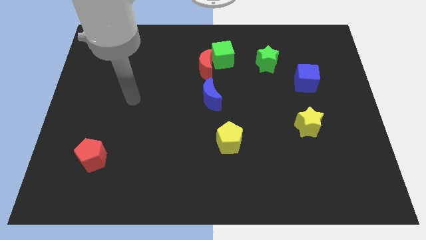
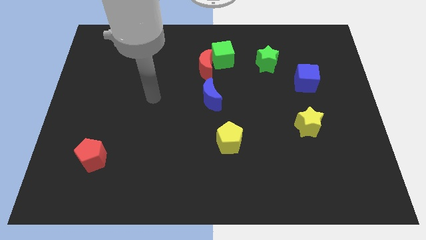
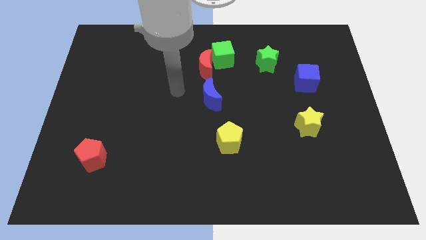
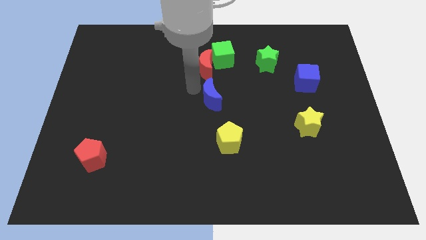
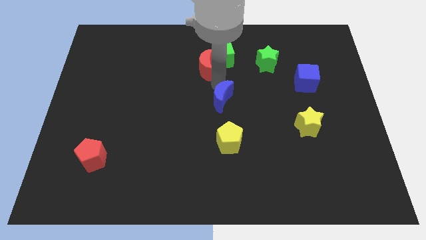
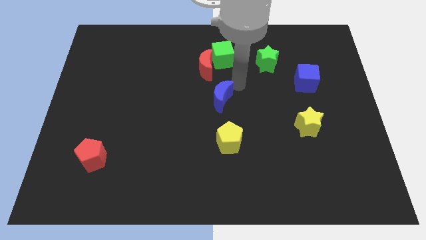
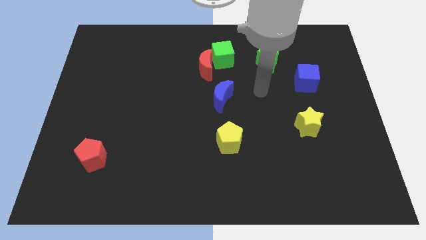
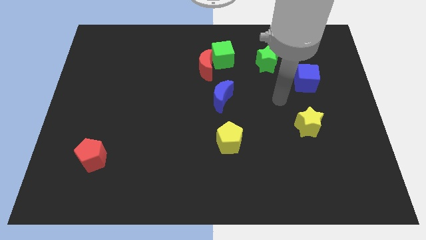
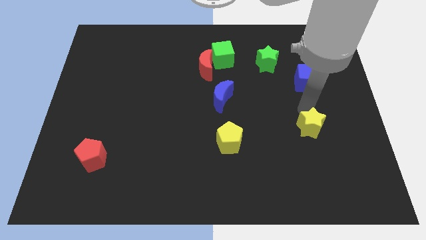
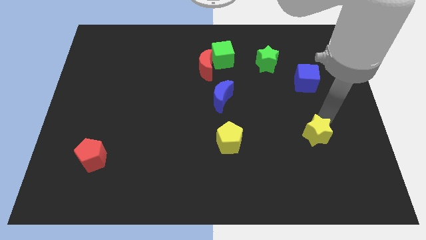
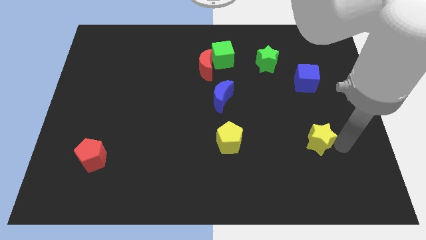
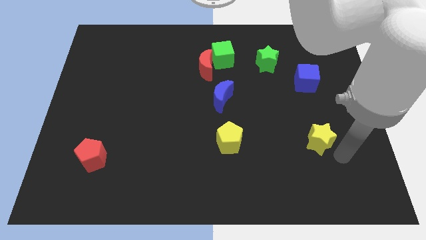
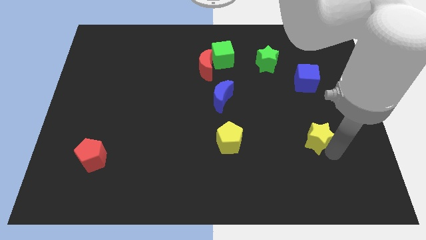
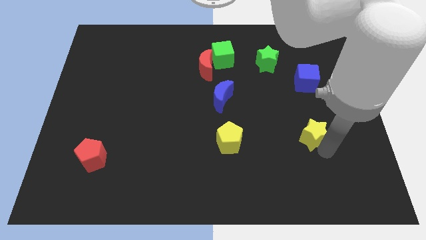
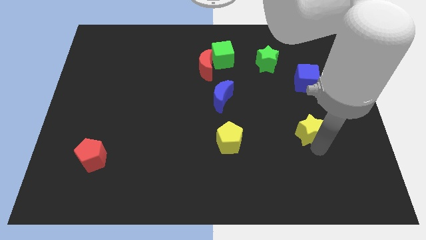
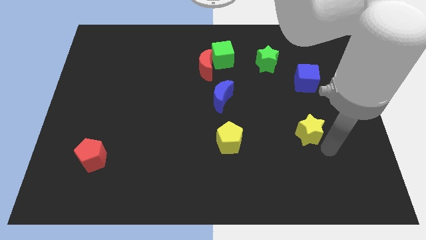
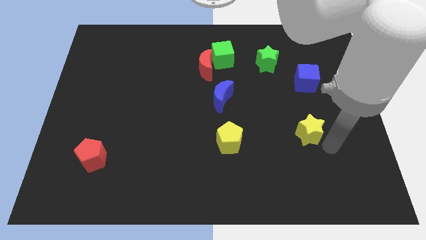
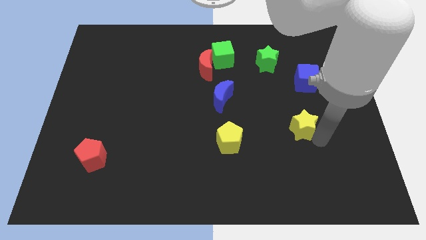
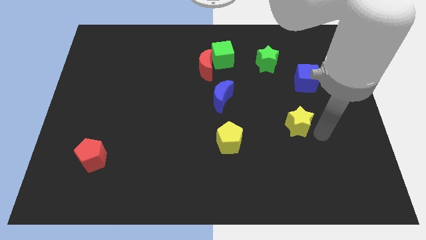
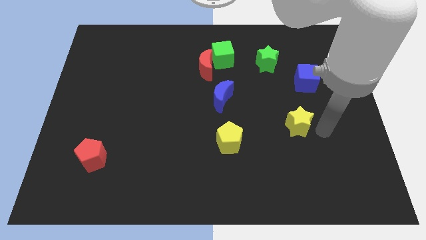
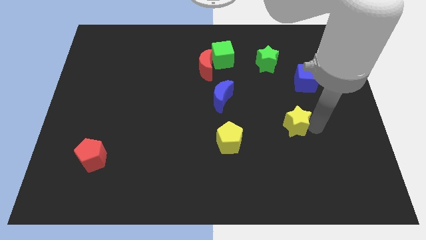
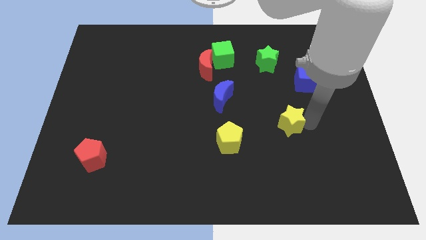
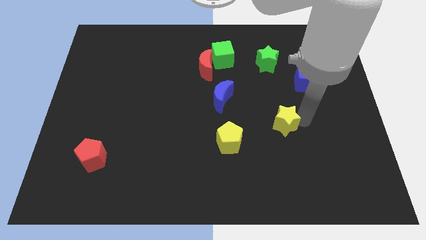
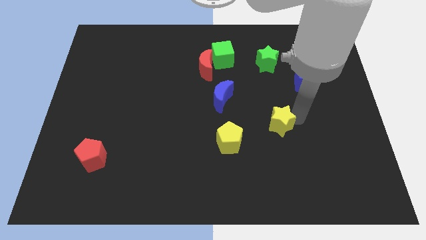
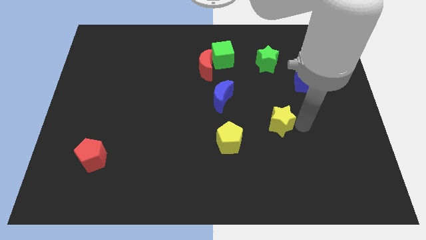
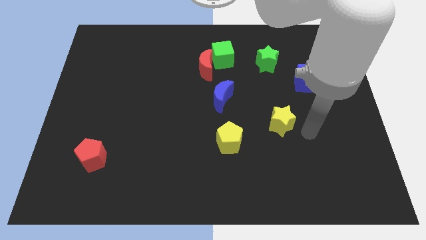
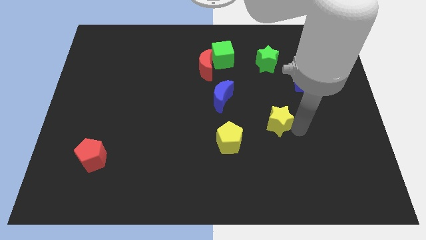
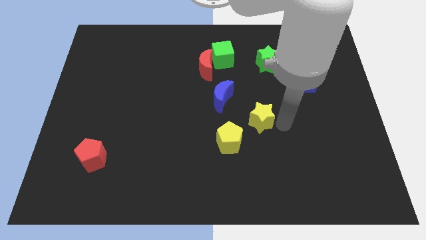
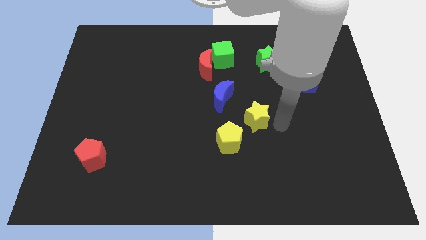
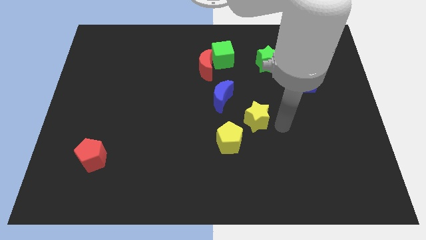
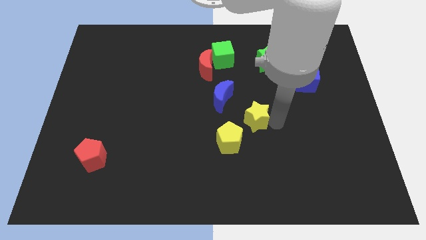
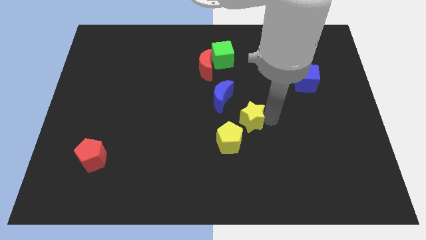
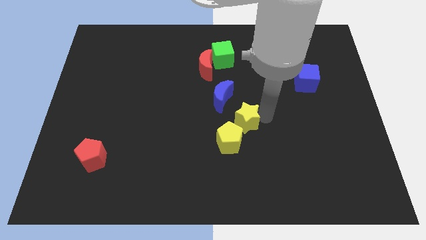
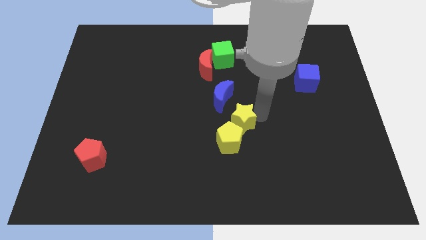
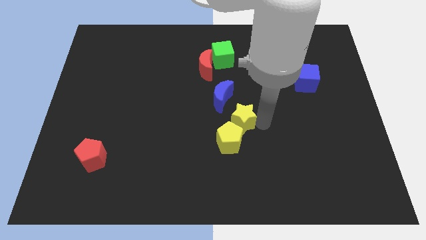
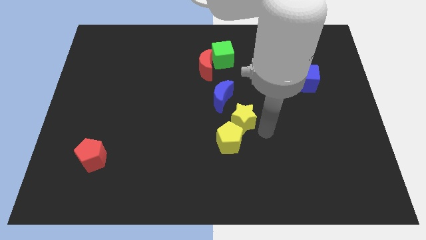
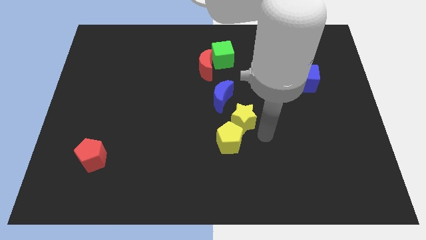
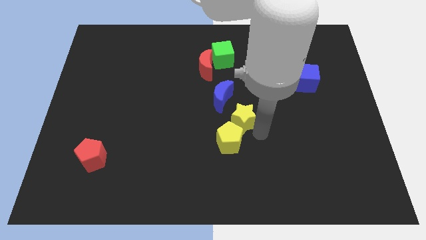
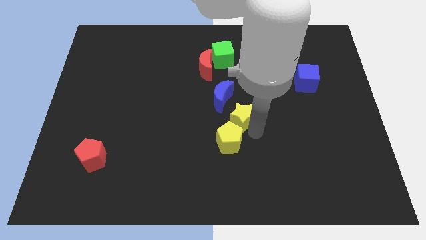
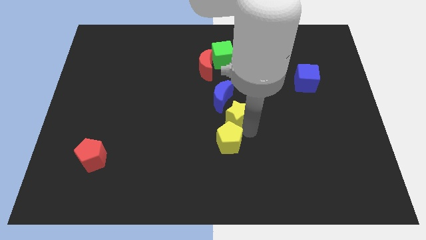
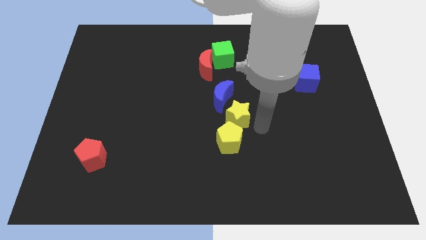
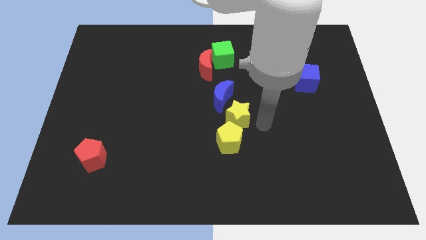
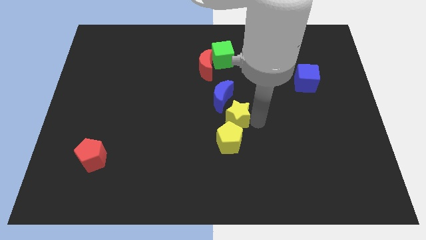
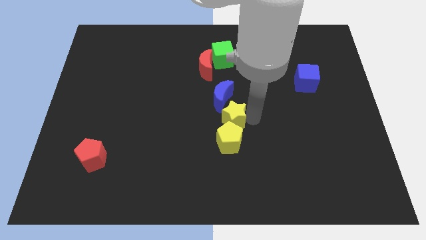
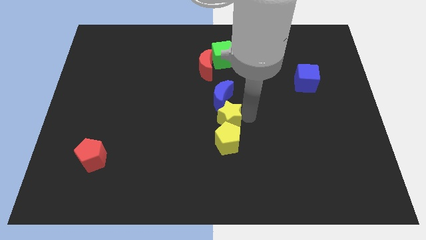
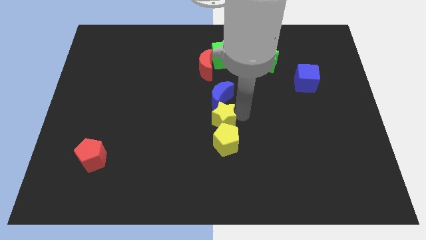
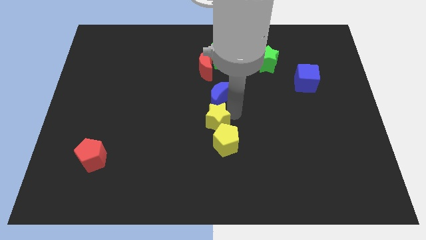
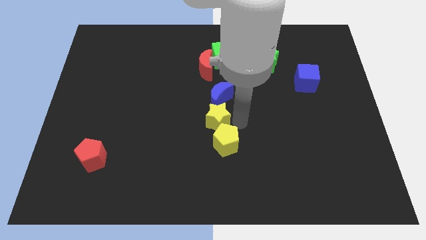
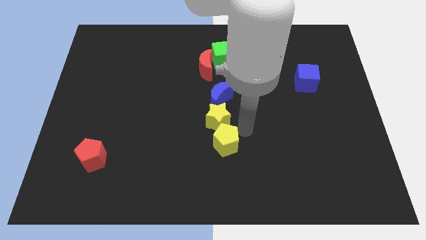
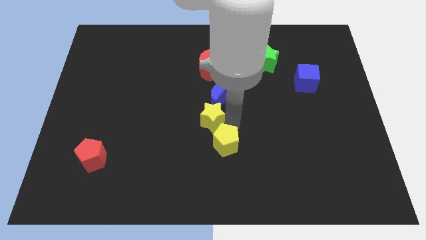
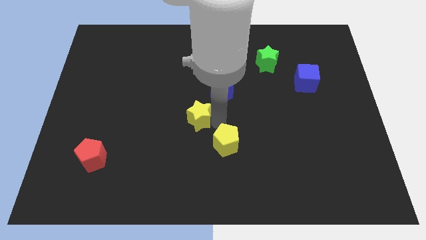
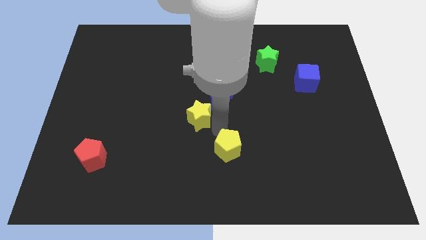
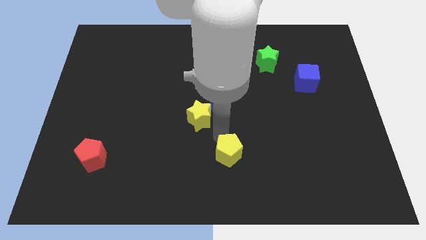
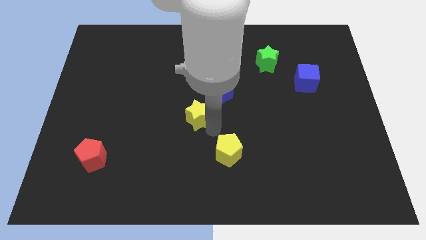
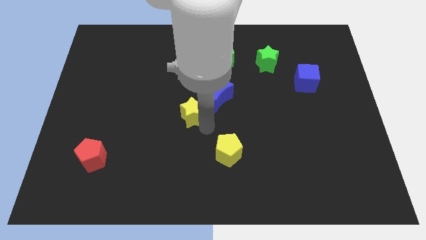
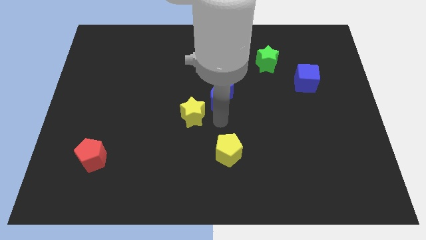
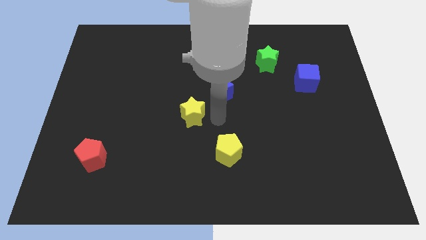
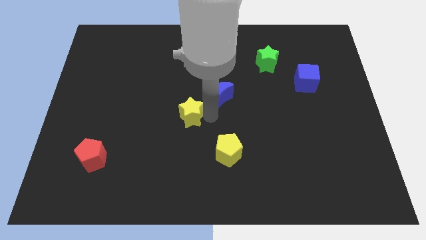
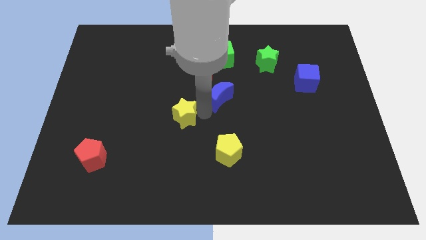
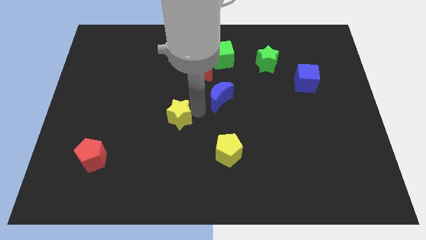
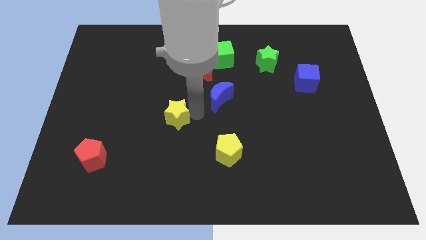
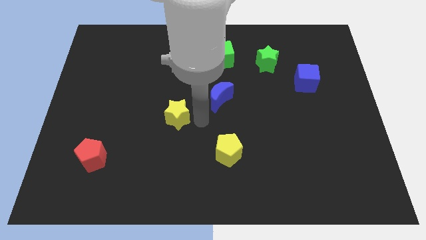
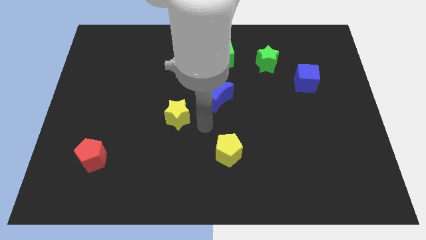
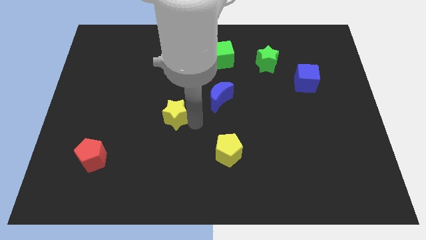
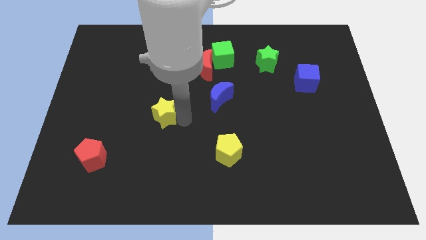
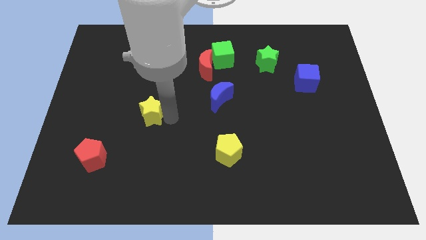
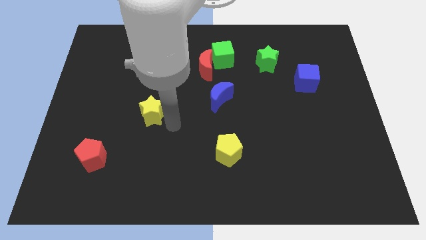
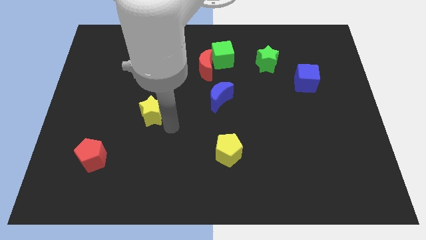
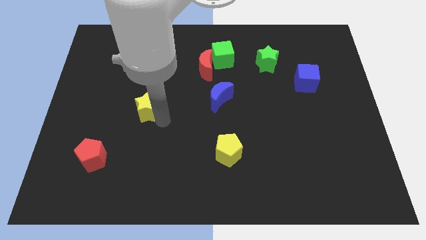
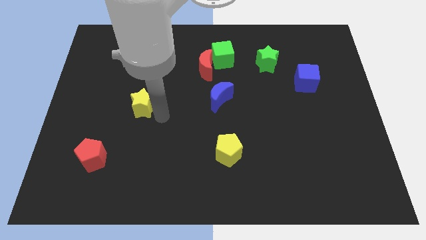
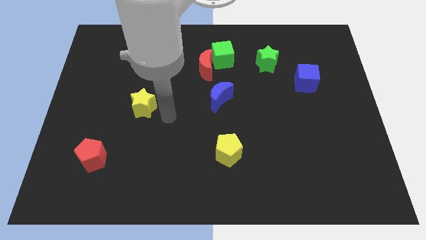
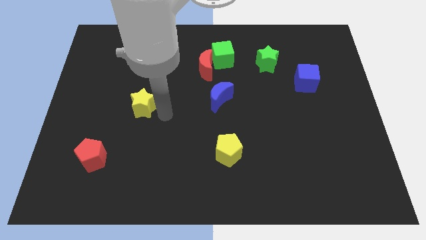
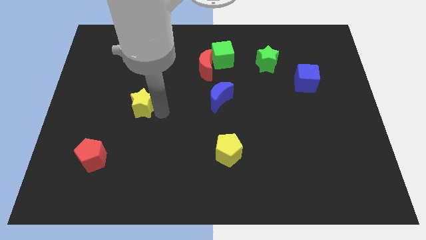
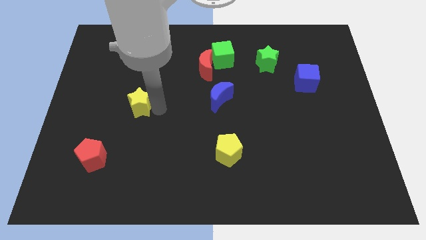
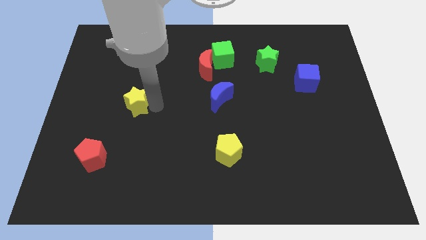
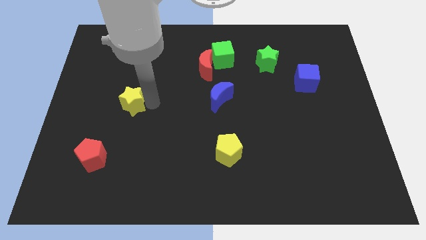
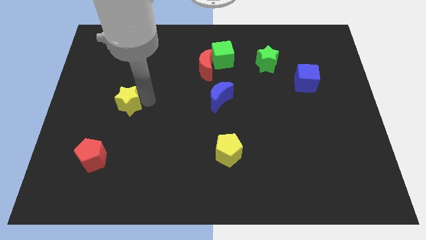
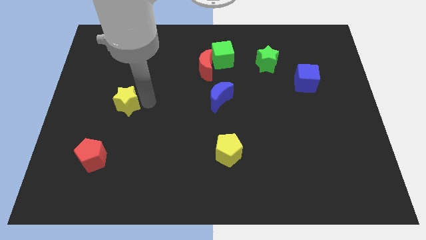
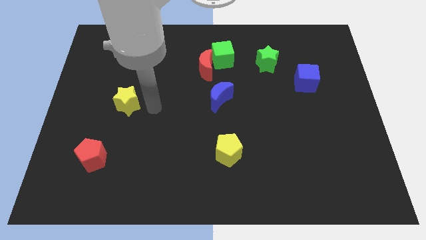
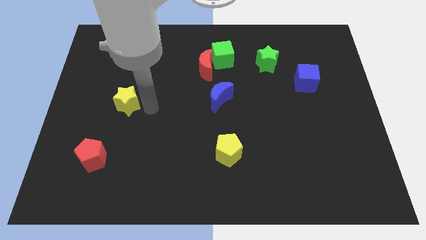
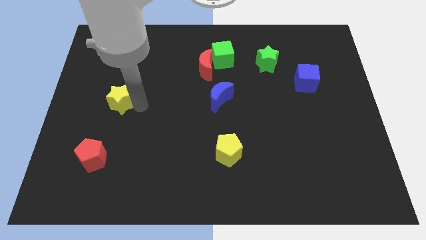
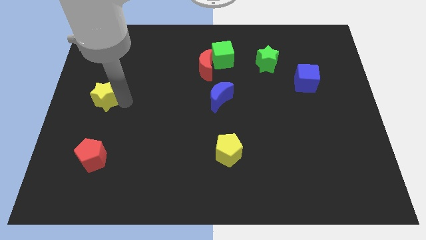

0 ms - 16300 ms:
push the yellow star to the left side

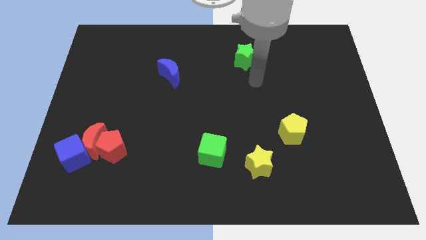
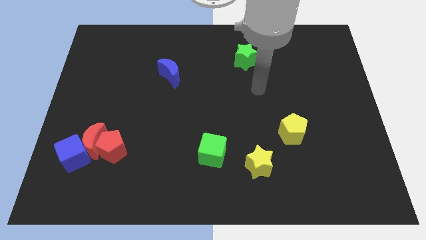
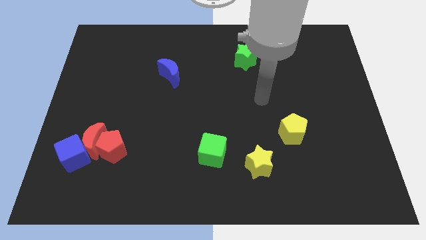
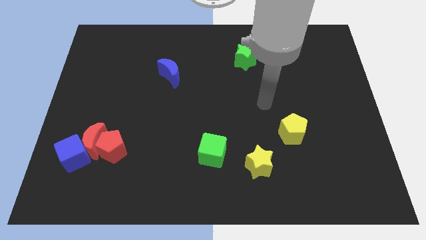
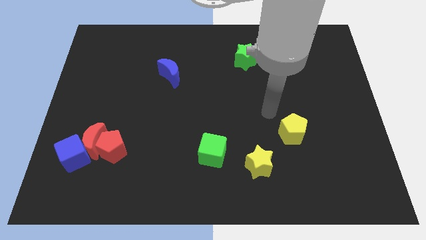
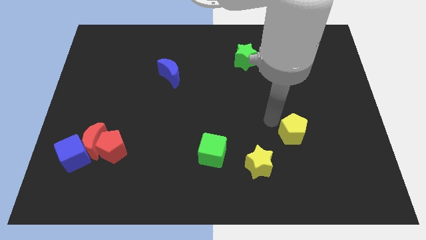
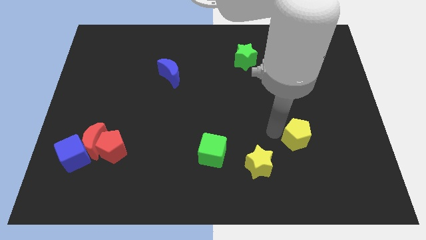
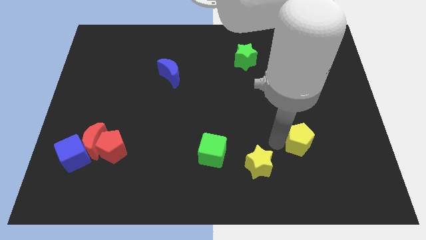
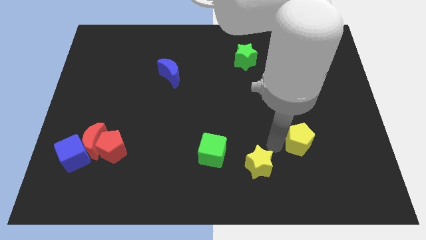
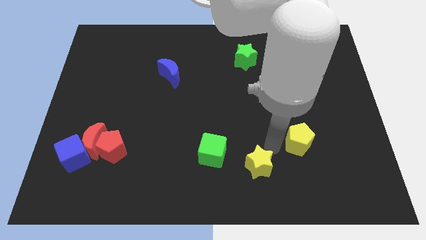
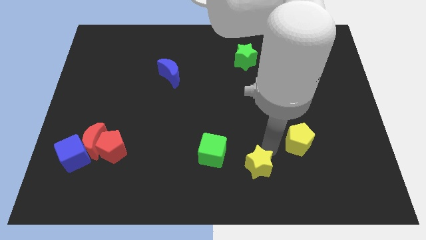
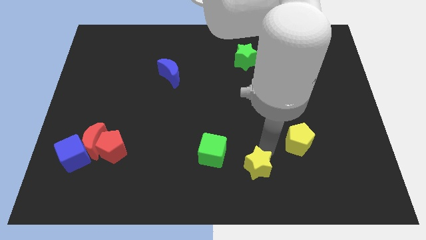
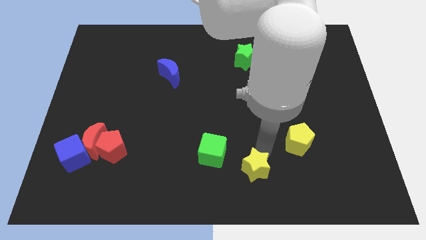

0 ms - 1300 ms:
slide the yellow star to the bottom
